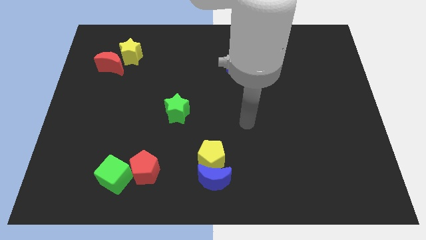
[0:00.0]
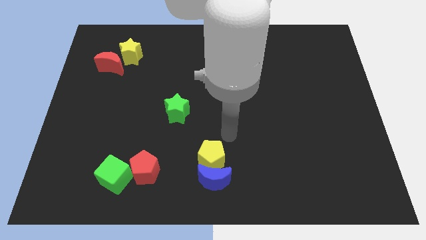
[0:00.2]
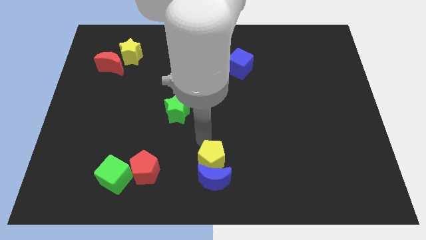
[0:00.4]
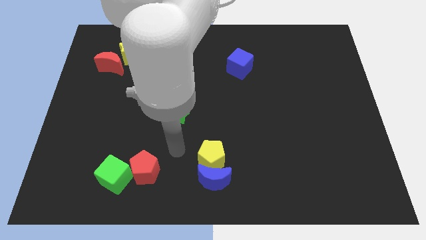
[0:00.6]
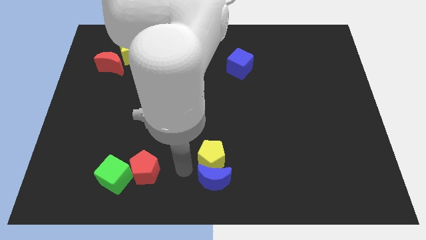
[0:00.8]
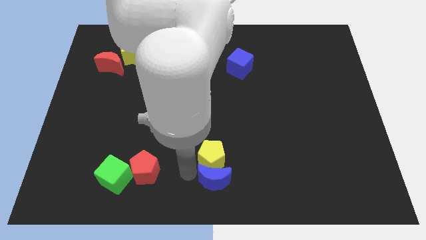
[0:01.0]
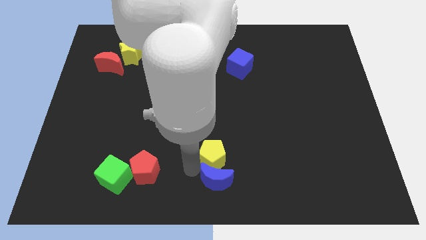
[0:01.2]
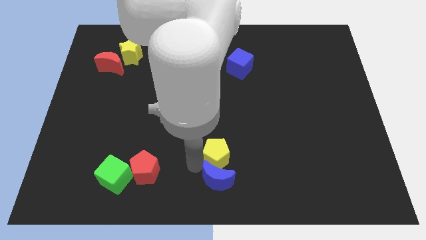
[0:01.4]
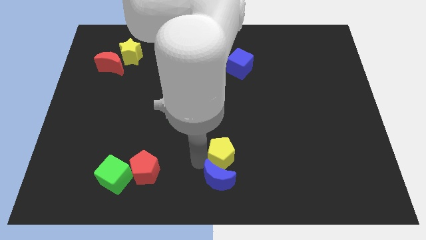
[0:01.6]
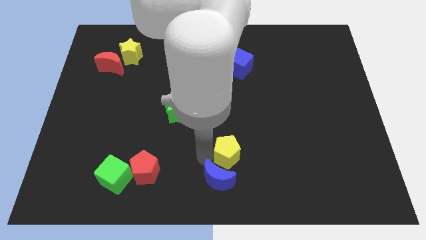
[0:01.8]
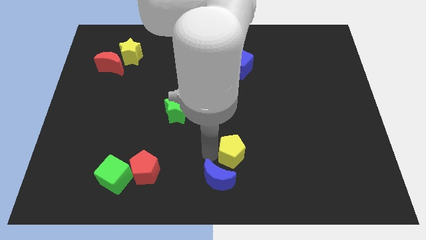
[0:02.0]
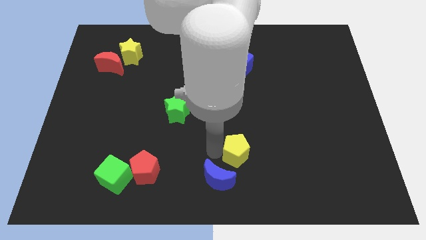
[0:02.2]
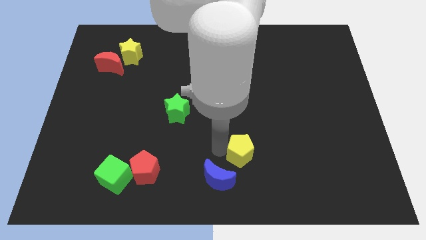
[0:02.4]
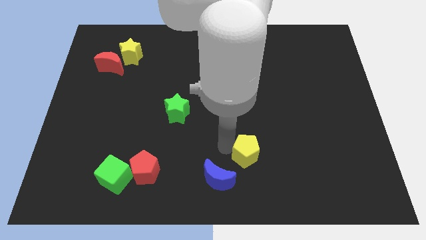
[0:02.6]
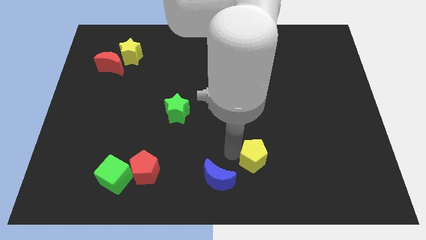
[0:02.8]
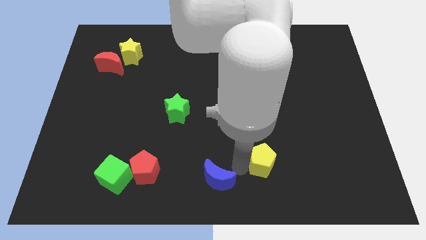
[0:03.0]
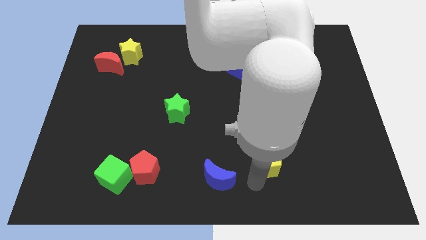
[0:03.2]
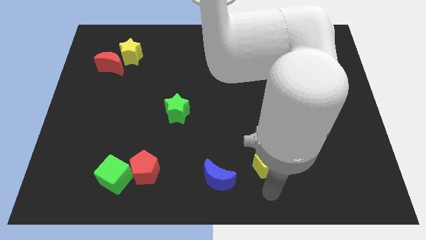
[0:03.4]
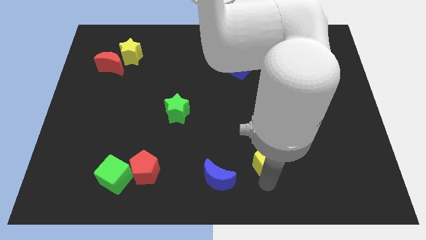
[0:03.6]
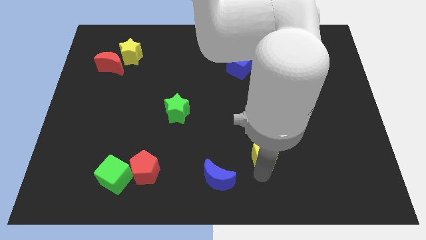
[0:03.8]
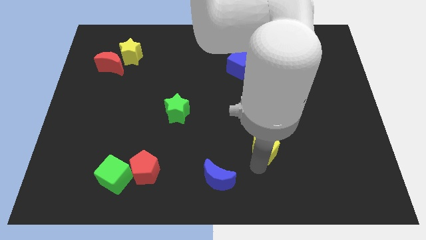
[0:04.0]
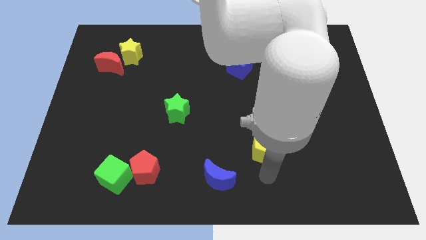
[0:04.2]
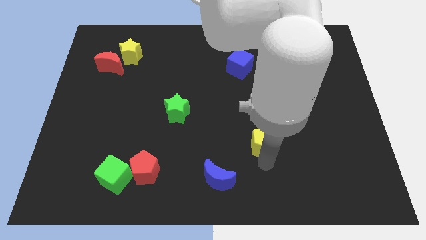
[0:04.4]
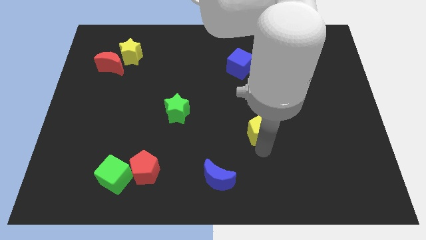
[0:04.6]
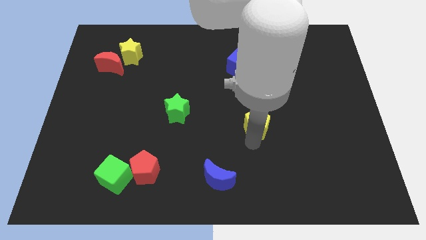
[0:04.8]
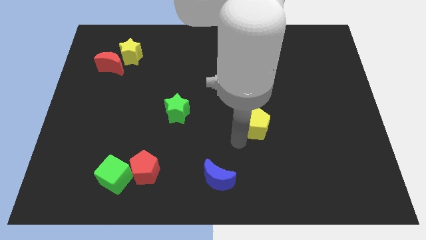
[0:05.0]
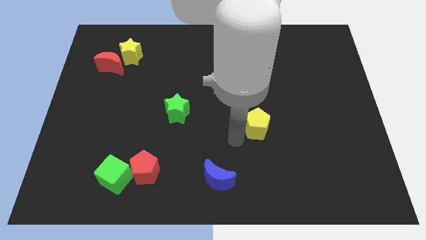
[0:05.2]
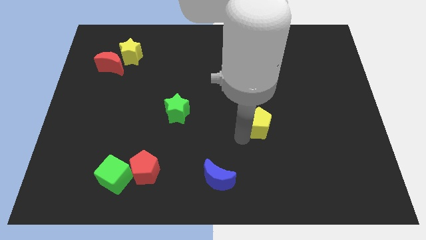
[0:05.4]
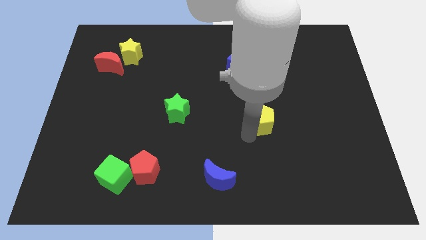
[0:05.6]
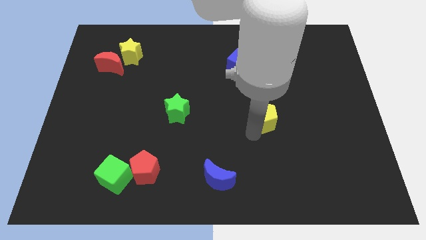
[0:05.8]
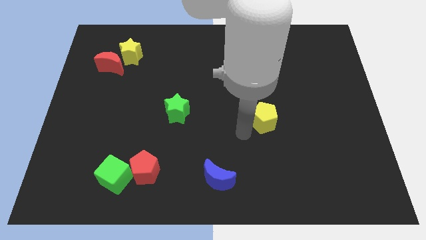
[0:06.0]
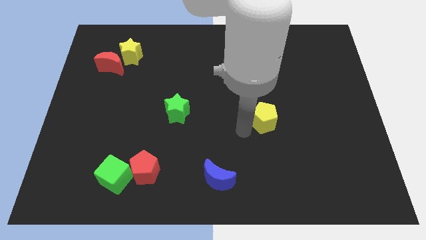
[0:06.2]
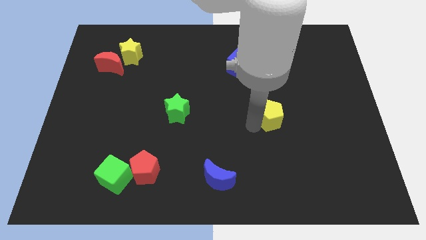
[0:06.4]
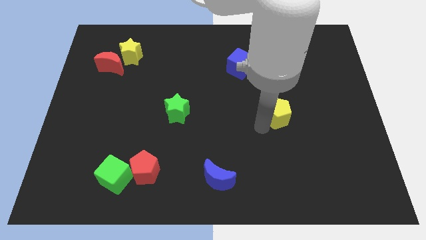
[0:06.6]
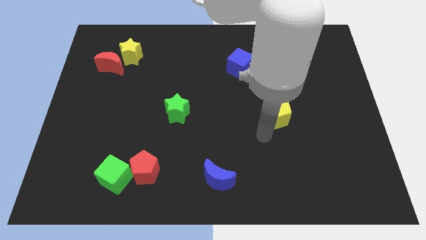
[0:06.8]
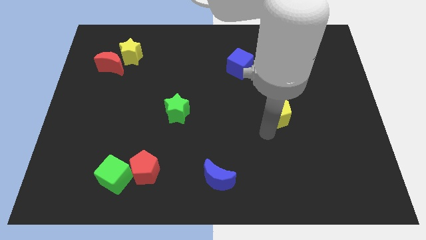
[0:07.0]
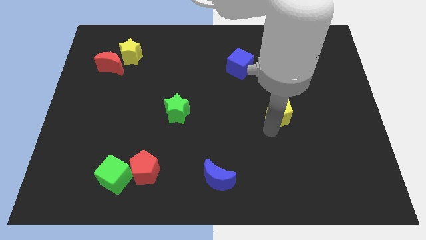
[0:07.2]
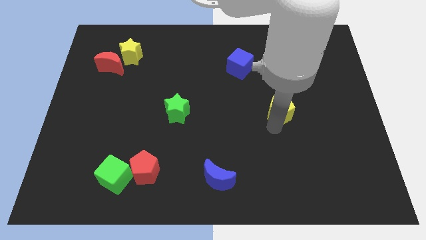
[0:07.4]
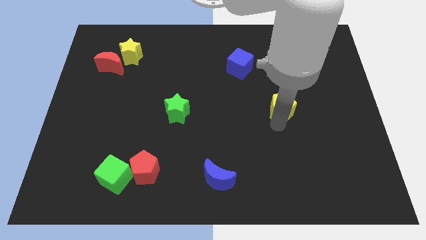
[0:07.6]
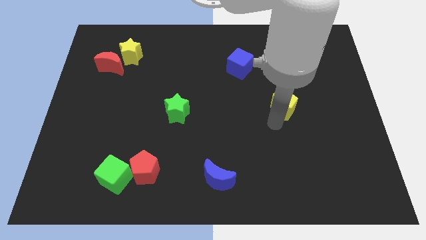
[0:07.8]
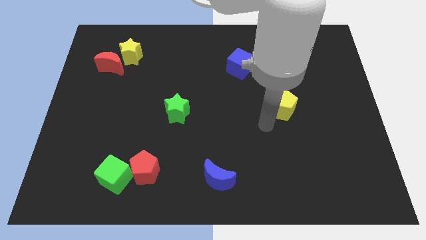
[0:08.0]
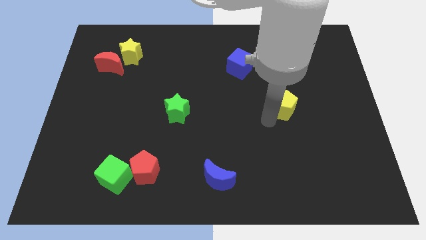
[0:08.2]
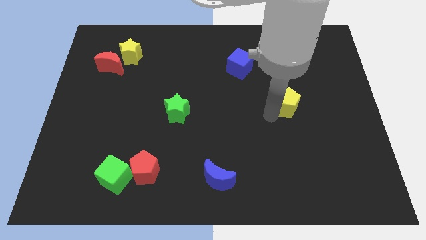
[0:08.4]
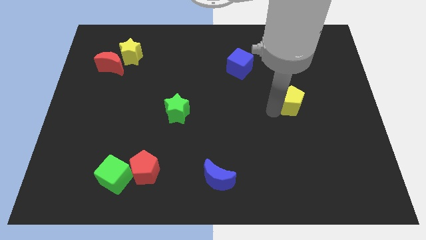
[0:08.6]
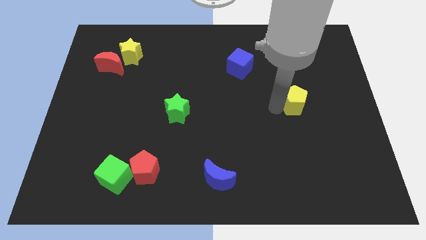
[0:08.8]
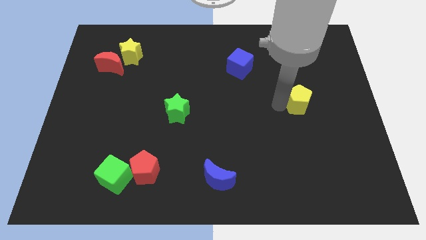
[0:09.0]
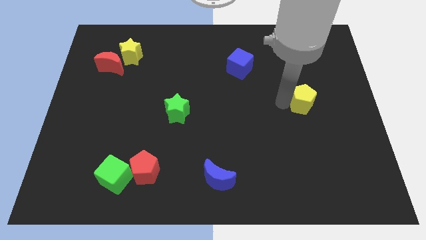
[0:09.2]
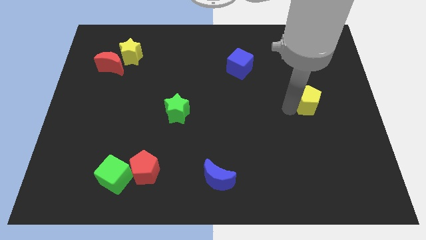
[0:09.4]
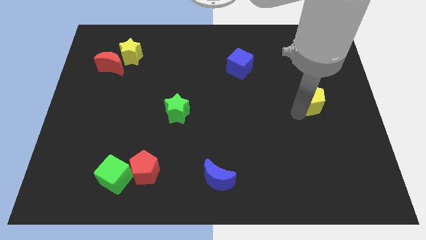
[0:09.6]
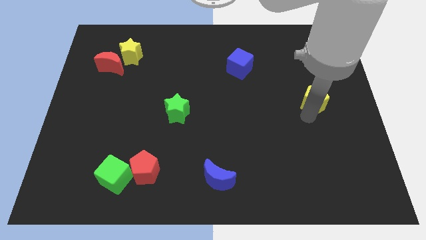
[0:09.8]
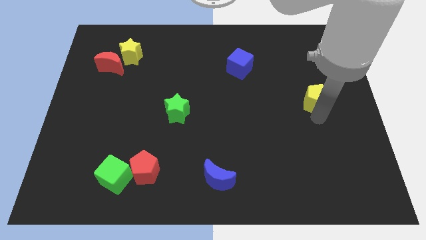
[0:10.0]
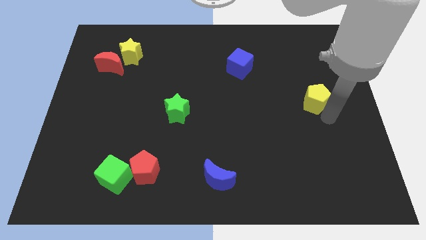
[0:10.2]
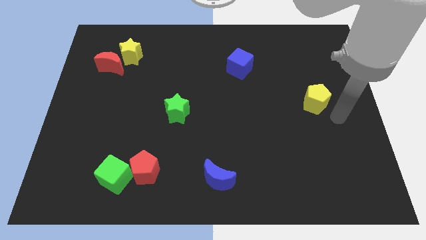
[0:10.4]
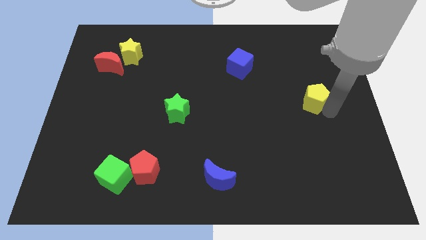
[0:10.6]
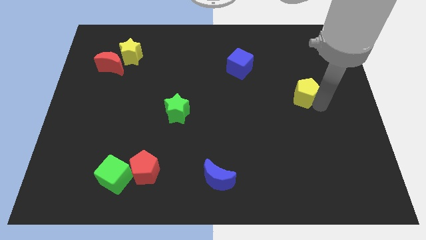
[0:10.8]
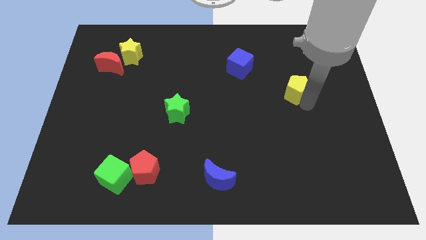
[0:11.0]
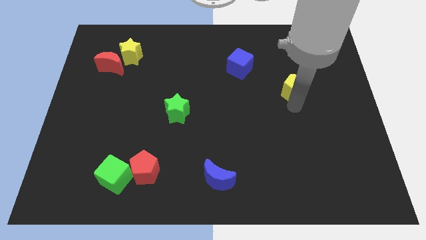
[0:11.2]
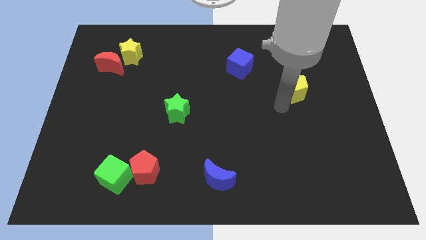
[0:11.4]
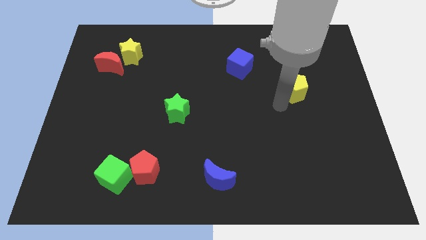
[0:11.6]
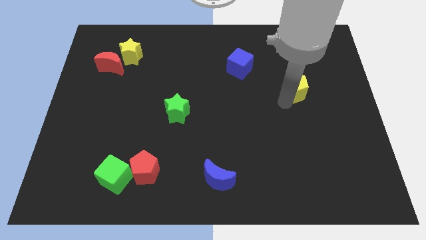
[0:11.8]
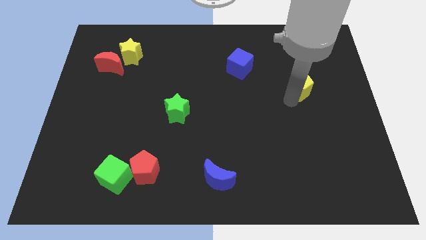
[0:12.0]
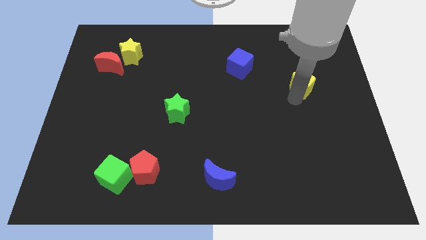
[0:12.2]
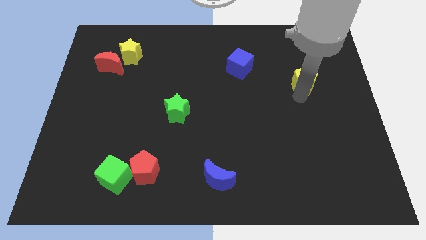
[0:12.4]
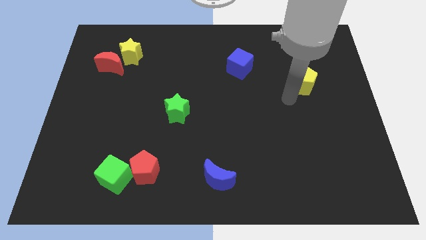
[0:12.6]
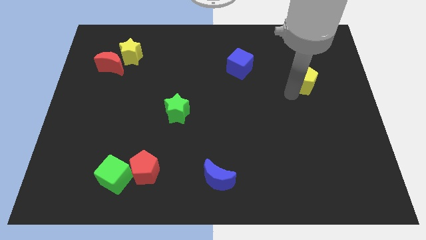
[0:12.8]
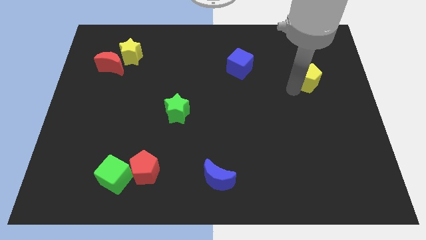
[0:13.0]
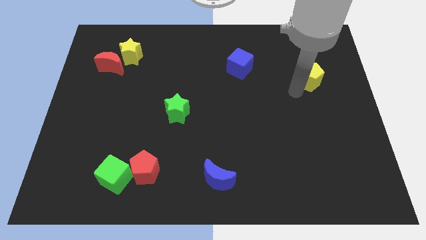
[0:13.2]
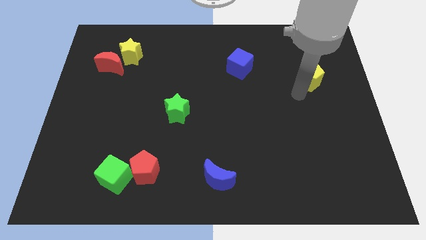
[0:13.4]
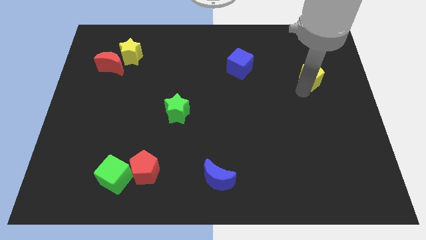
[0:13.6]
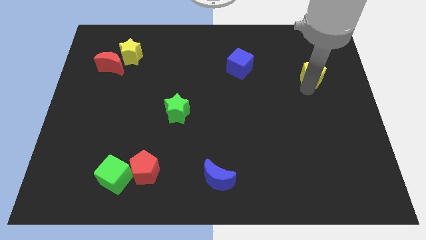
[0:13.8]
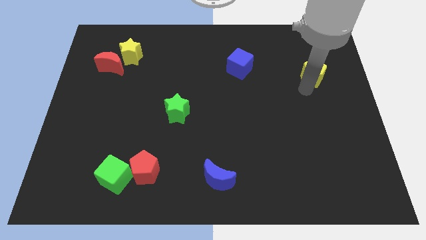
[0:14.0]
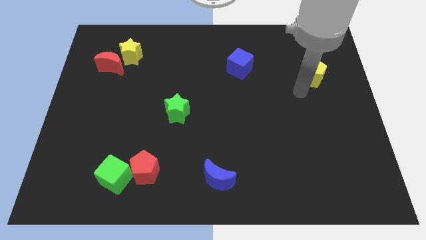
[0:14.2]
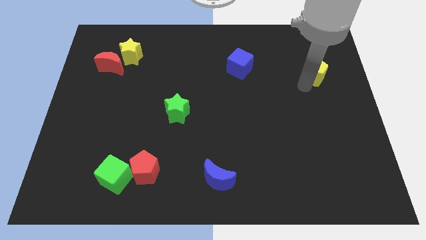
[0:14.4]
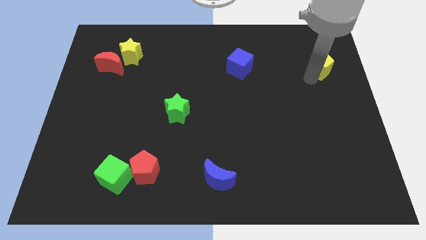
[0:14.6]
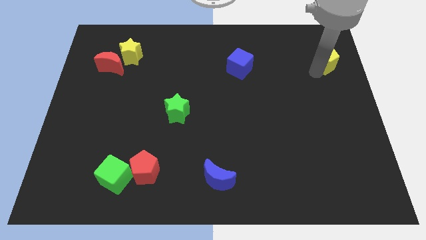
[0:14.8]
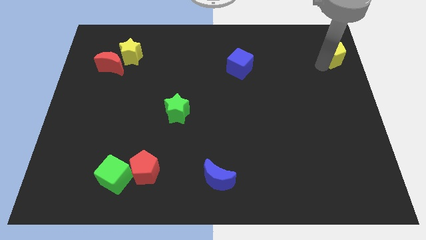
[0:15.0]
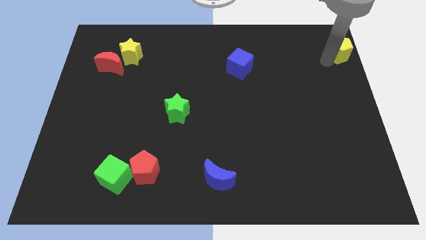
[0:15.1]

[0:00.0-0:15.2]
slide the yellow pentagon to the upper right corner
